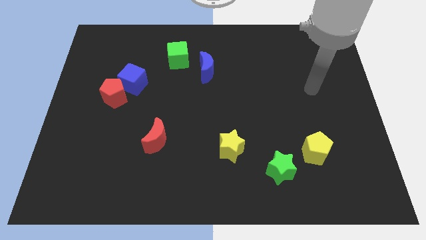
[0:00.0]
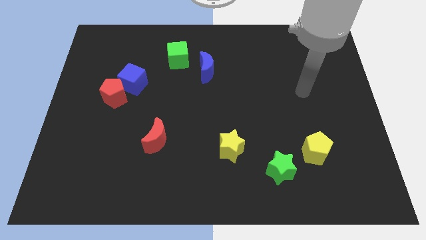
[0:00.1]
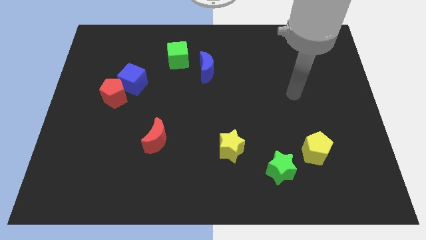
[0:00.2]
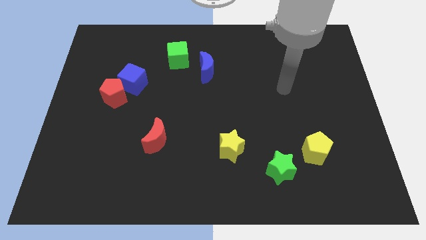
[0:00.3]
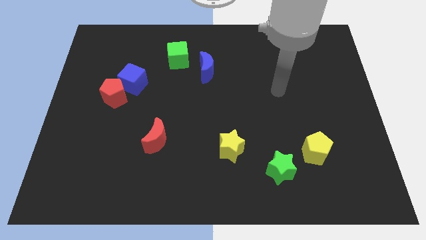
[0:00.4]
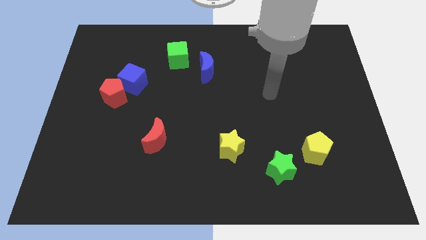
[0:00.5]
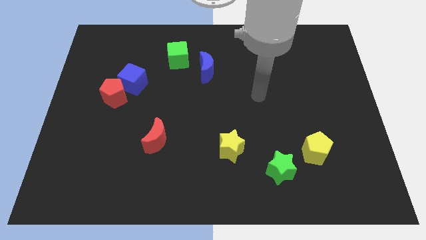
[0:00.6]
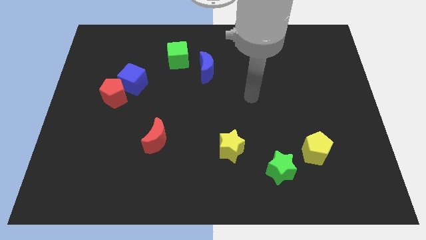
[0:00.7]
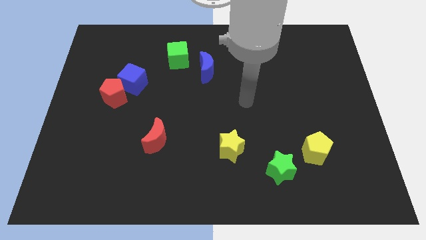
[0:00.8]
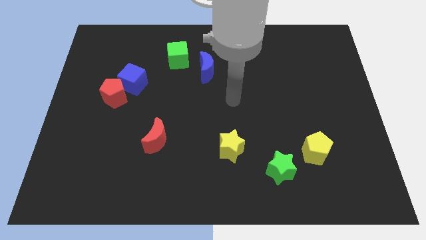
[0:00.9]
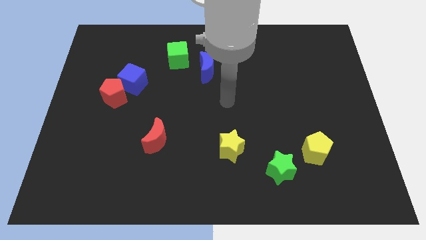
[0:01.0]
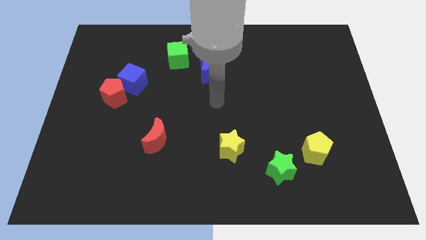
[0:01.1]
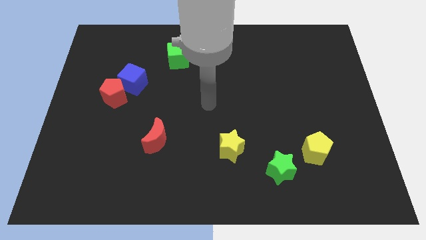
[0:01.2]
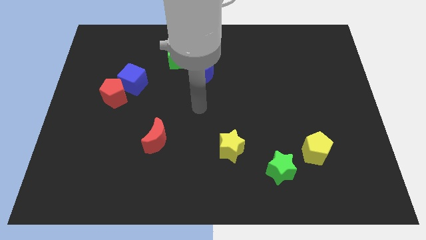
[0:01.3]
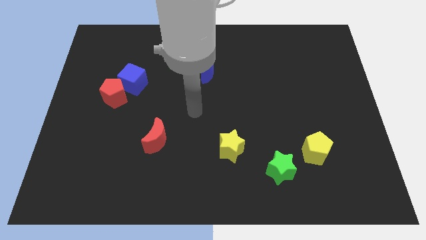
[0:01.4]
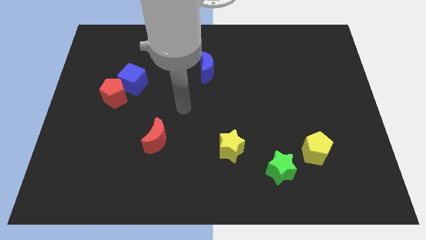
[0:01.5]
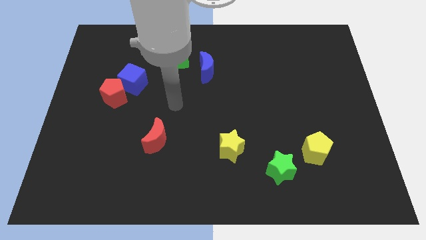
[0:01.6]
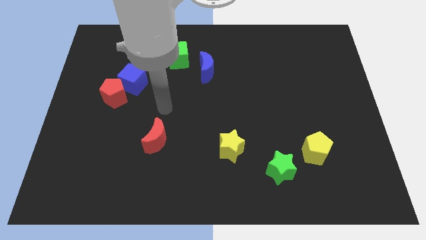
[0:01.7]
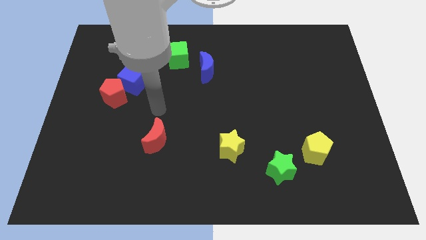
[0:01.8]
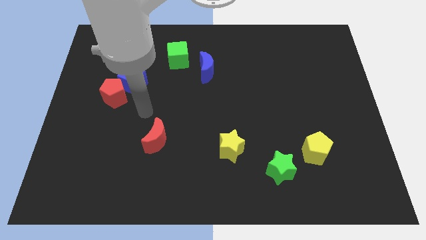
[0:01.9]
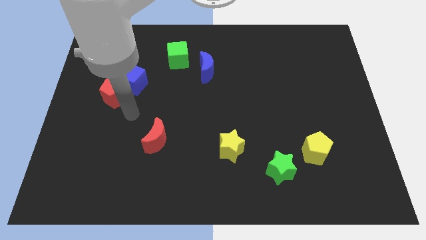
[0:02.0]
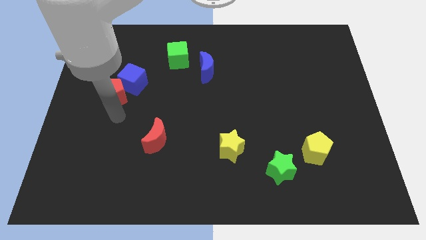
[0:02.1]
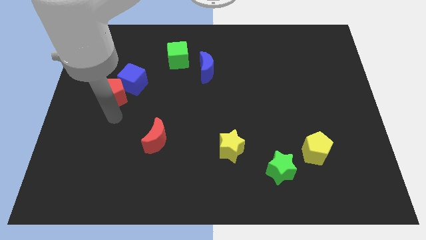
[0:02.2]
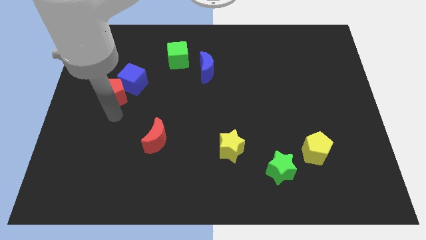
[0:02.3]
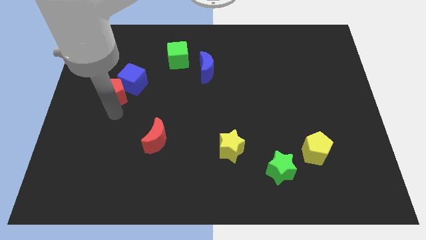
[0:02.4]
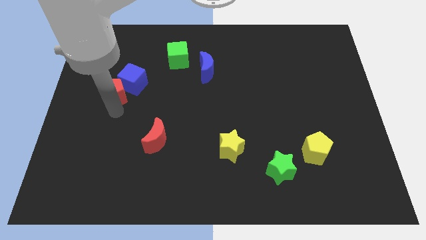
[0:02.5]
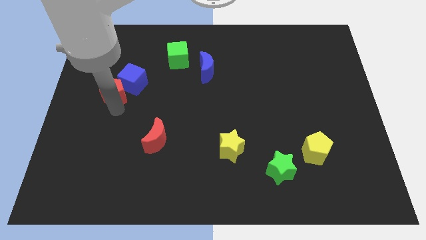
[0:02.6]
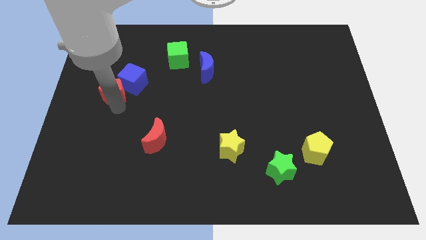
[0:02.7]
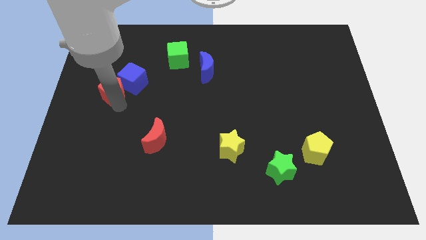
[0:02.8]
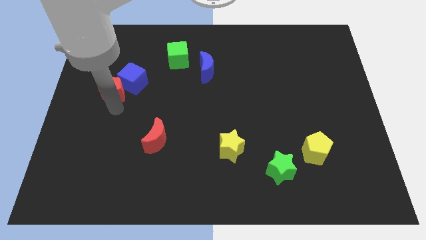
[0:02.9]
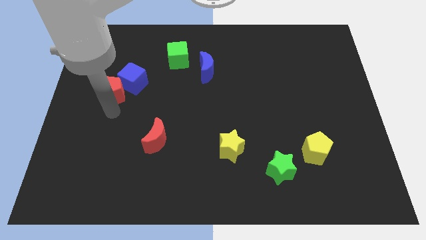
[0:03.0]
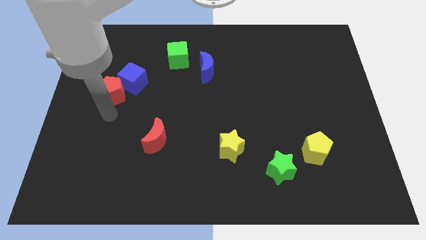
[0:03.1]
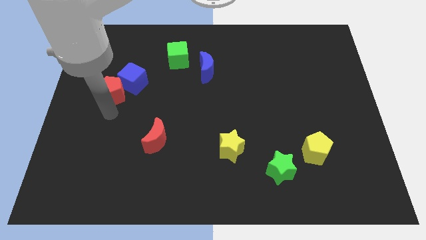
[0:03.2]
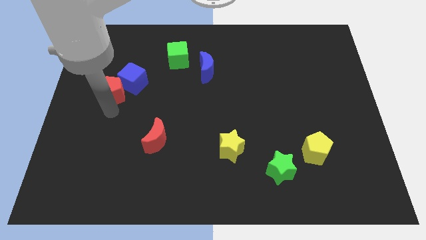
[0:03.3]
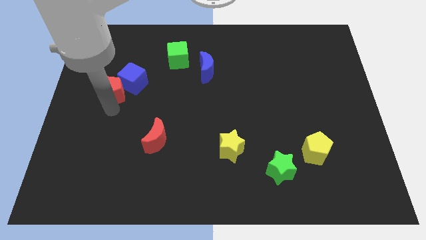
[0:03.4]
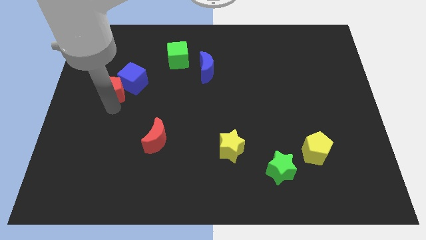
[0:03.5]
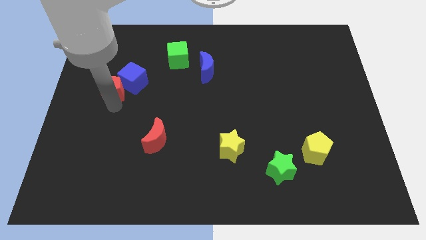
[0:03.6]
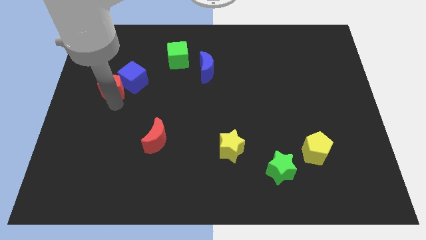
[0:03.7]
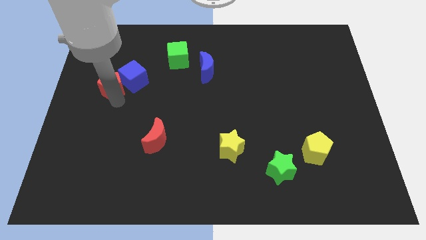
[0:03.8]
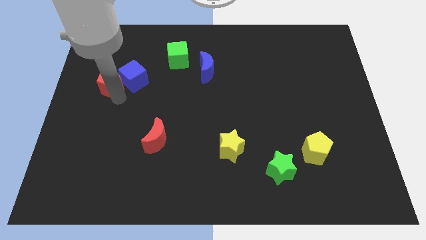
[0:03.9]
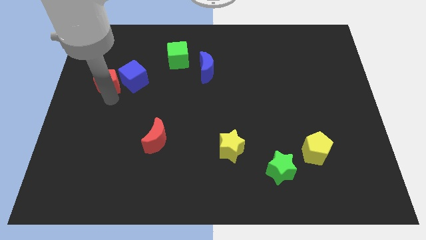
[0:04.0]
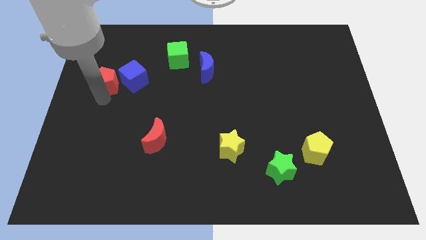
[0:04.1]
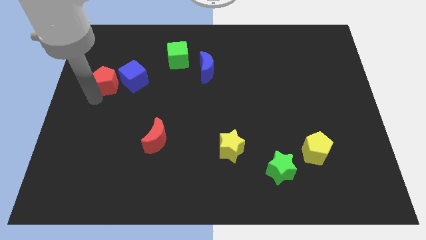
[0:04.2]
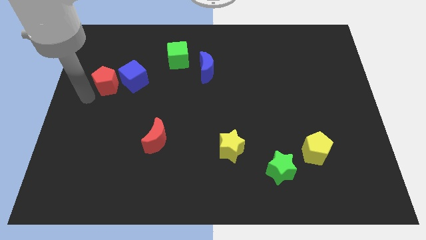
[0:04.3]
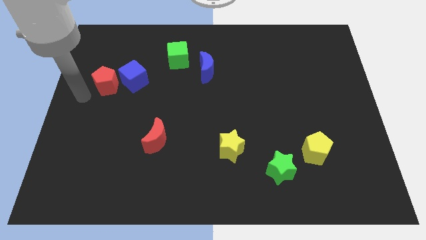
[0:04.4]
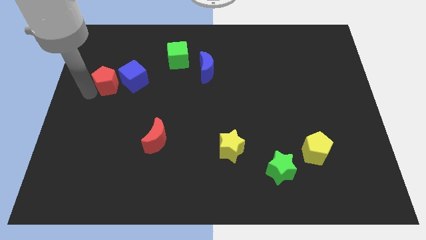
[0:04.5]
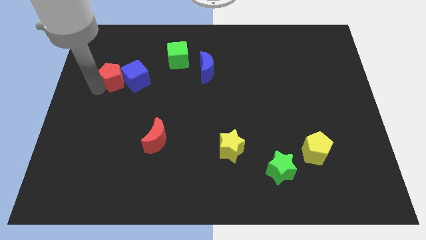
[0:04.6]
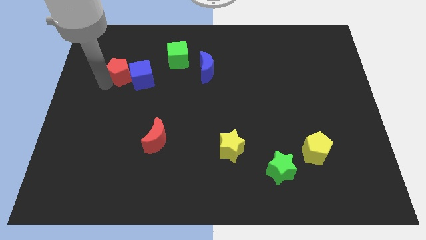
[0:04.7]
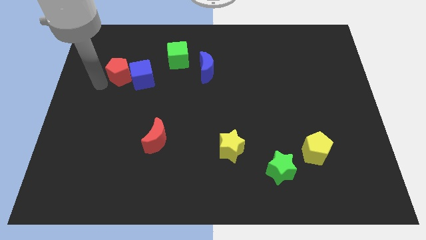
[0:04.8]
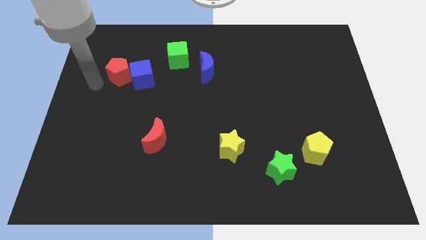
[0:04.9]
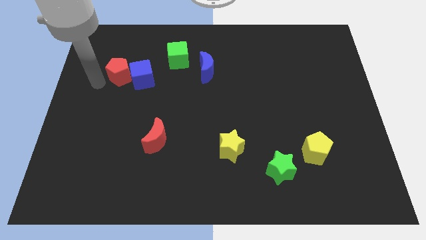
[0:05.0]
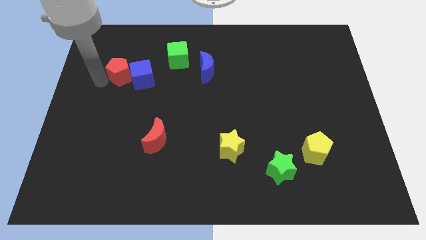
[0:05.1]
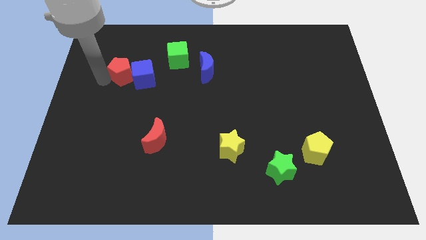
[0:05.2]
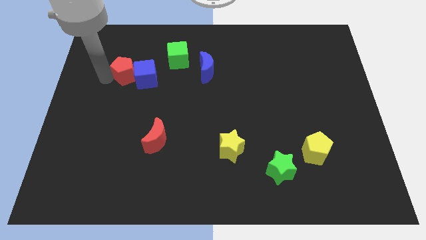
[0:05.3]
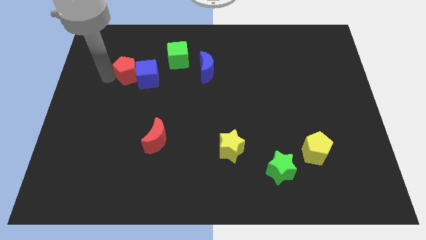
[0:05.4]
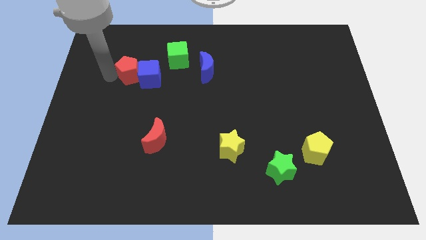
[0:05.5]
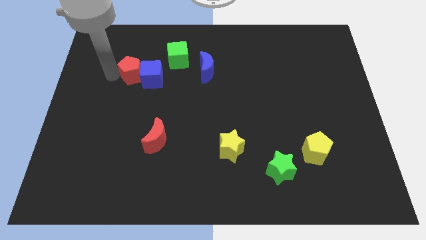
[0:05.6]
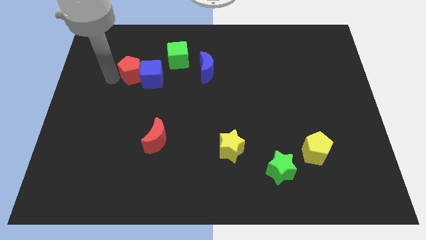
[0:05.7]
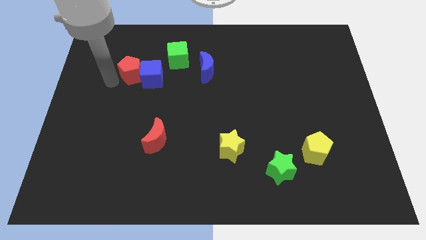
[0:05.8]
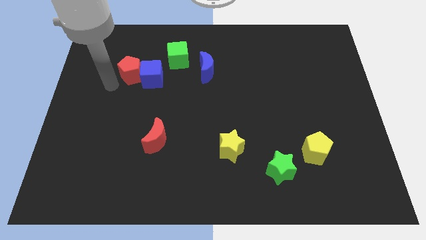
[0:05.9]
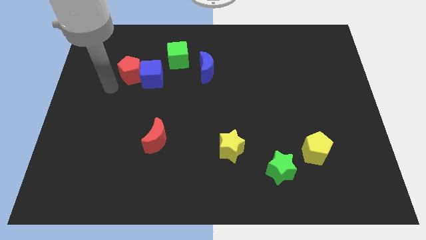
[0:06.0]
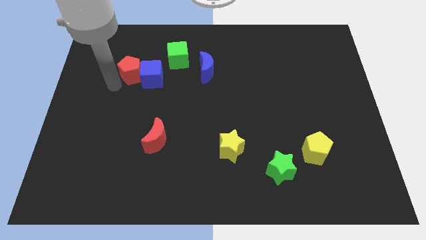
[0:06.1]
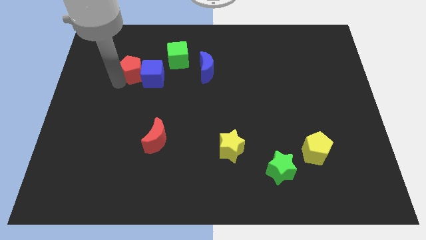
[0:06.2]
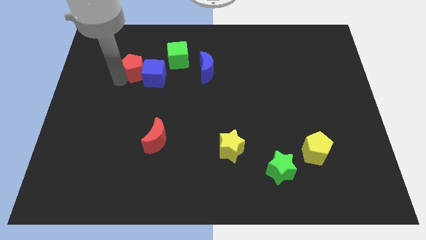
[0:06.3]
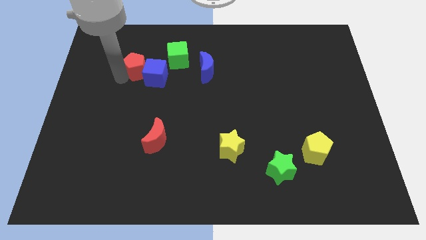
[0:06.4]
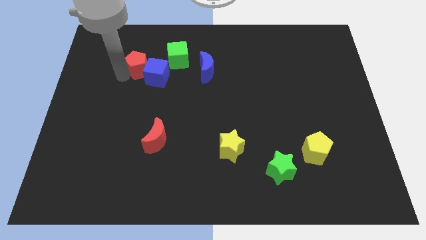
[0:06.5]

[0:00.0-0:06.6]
put the red pentagon to the bottom left side of the green cube
